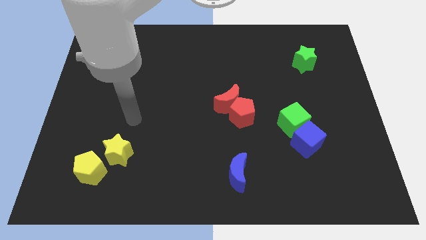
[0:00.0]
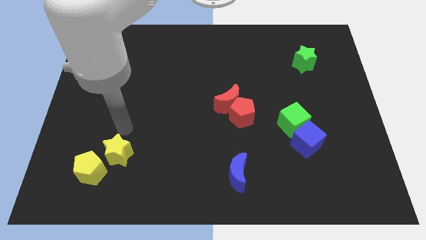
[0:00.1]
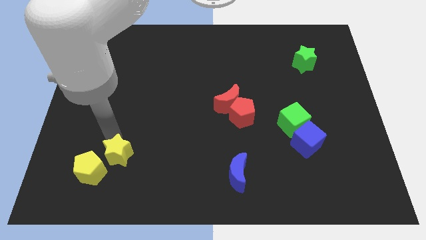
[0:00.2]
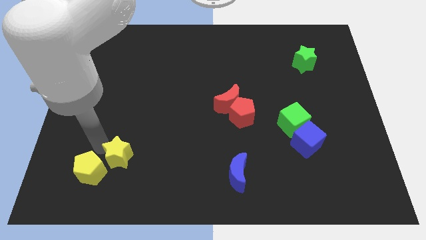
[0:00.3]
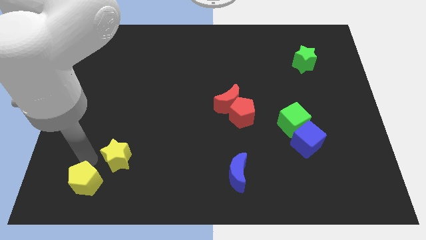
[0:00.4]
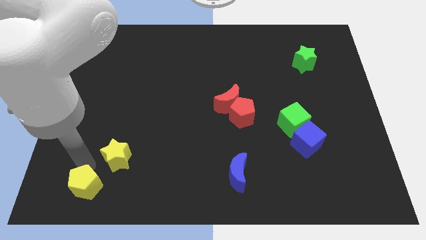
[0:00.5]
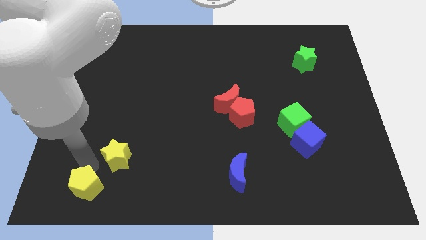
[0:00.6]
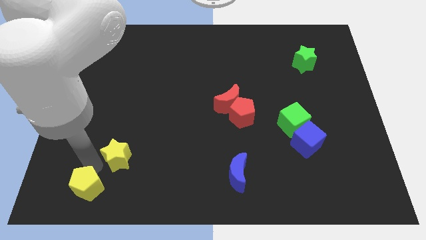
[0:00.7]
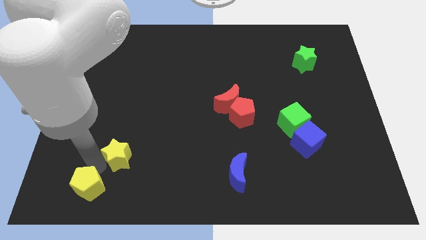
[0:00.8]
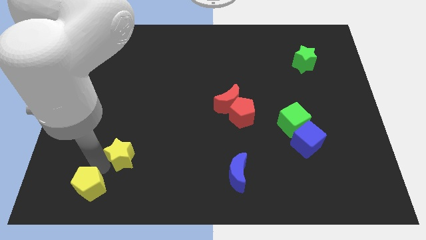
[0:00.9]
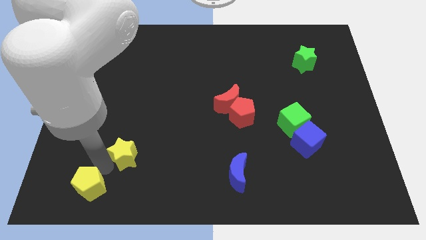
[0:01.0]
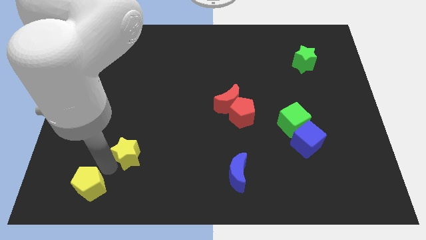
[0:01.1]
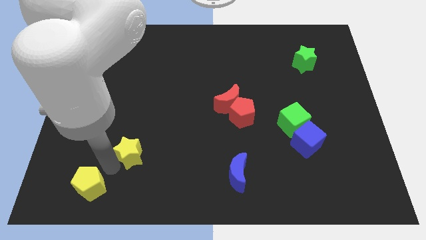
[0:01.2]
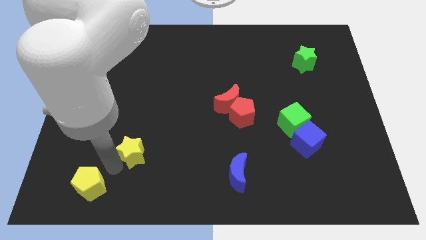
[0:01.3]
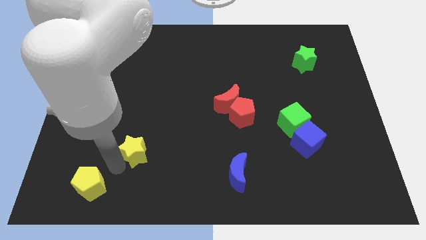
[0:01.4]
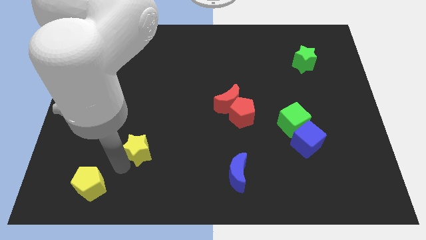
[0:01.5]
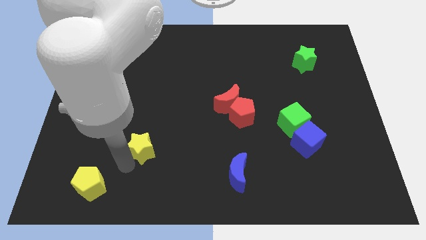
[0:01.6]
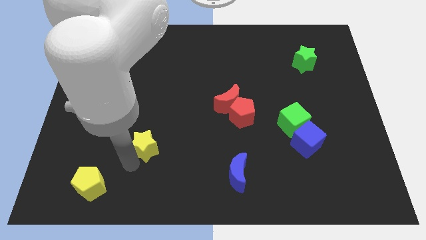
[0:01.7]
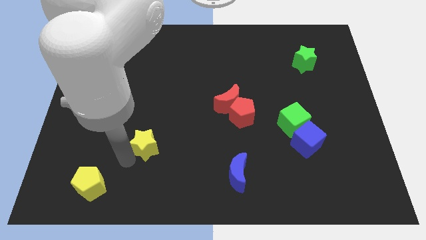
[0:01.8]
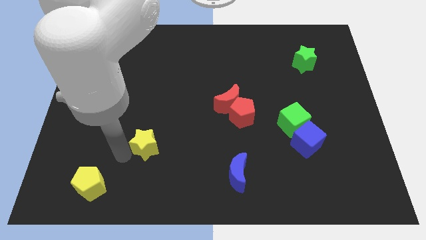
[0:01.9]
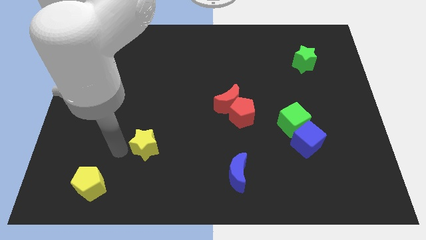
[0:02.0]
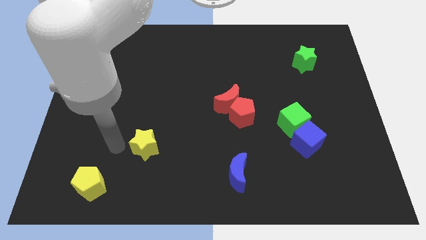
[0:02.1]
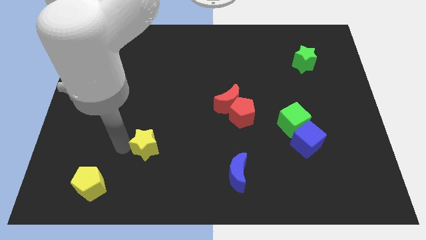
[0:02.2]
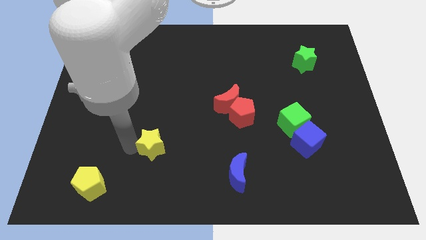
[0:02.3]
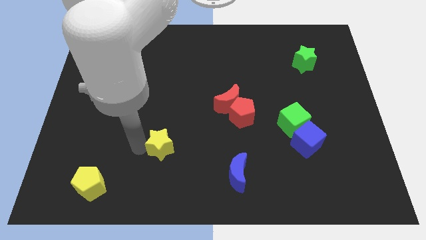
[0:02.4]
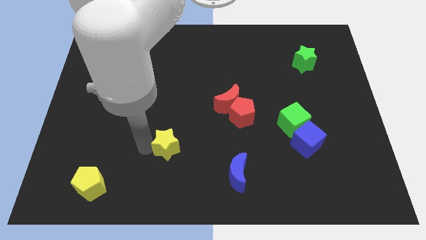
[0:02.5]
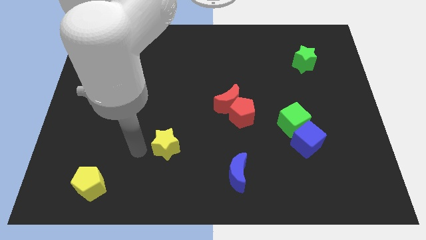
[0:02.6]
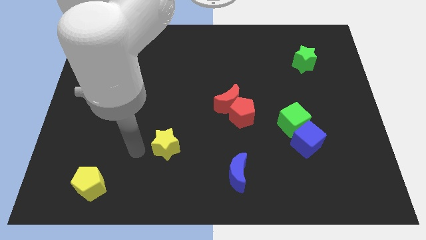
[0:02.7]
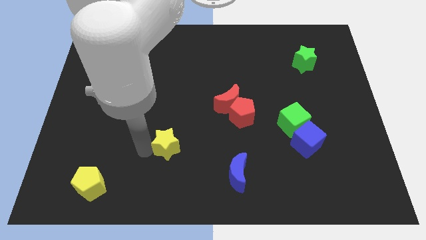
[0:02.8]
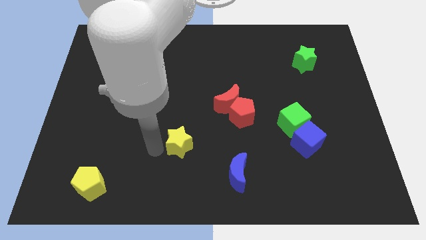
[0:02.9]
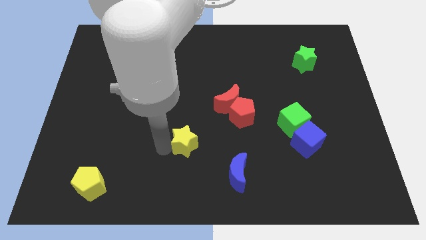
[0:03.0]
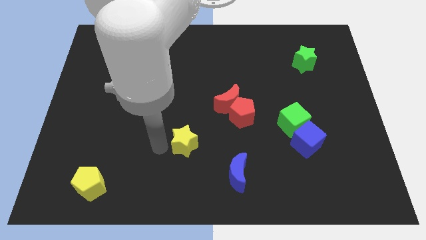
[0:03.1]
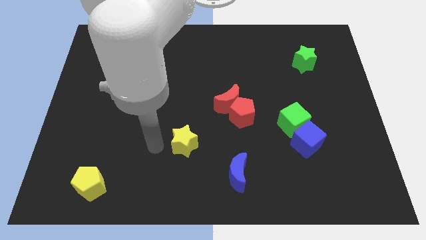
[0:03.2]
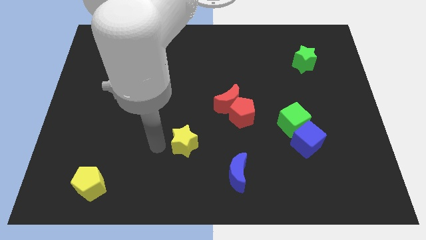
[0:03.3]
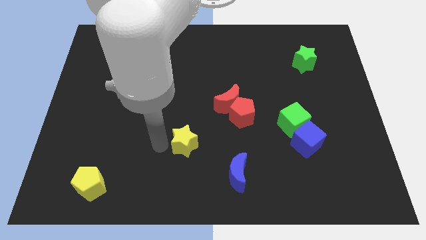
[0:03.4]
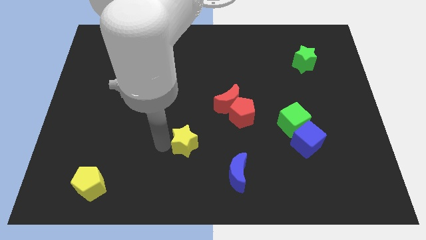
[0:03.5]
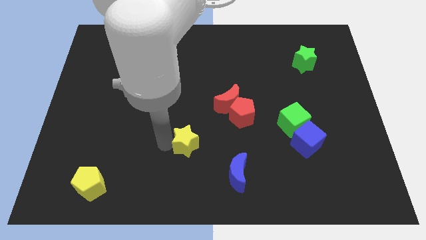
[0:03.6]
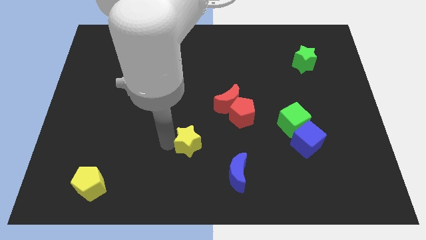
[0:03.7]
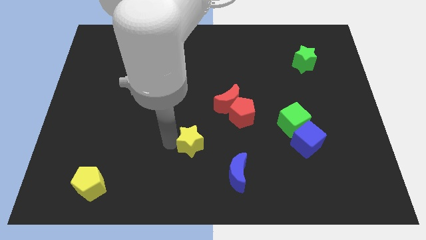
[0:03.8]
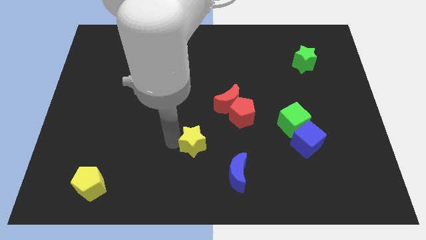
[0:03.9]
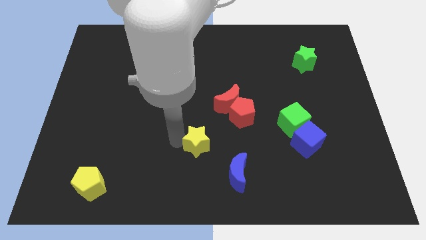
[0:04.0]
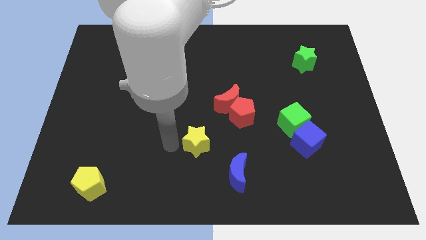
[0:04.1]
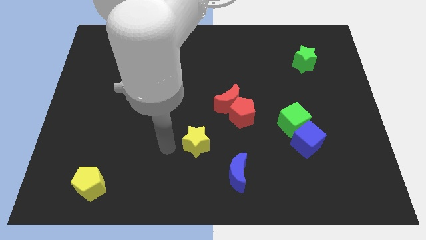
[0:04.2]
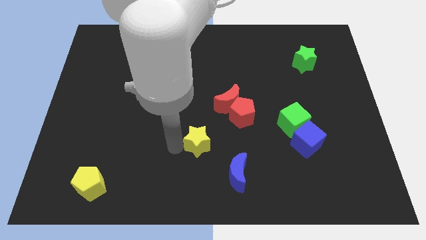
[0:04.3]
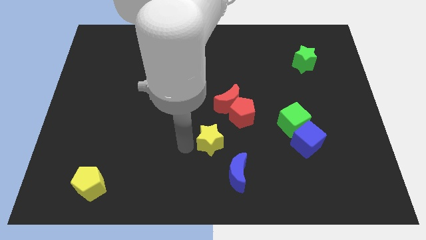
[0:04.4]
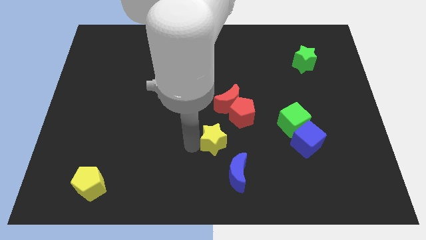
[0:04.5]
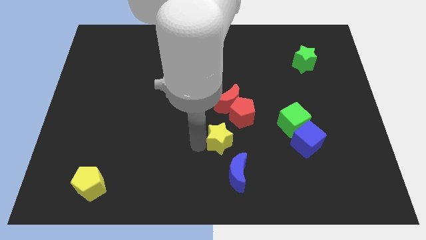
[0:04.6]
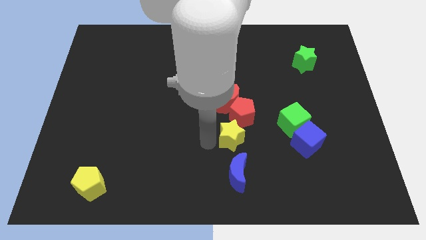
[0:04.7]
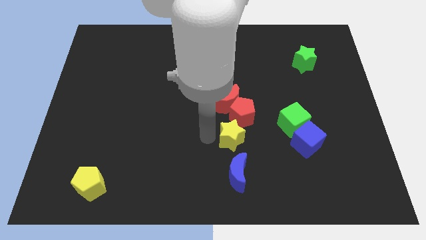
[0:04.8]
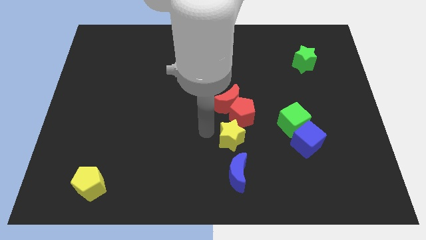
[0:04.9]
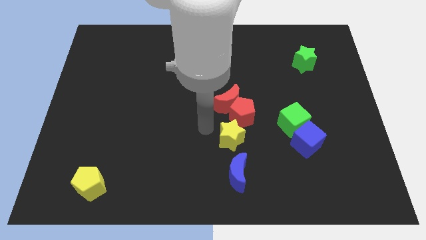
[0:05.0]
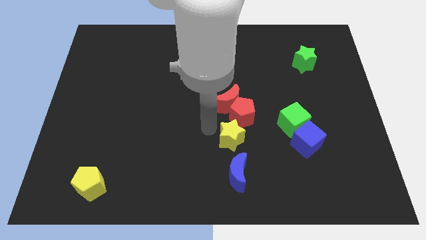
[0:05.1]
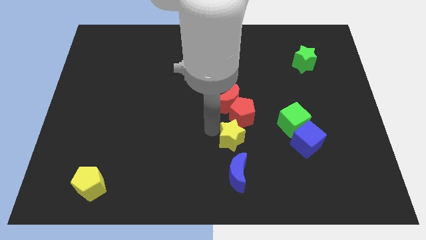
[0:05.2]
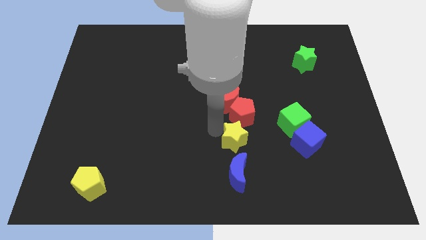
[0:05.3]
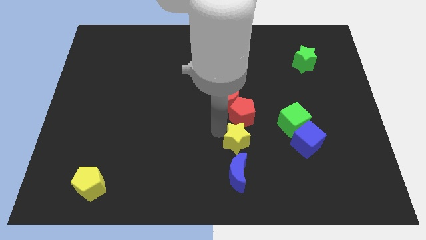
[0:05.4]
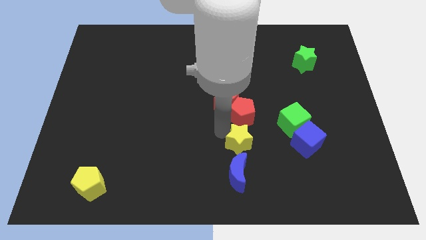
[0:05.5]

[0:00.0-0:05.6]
put the yellow star to the top right side of the blue moon
